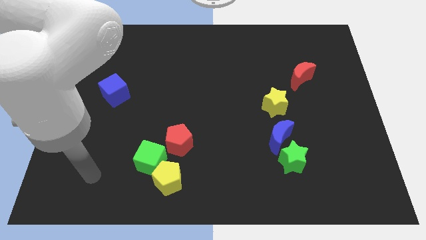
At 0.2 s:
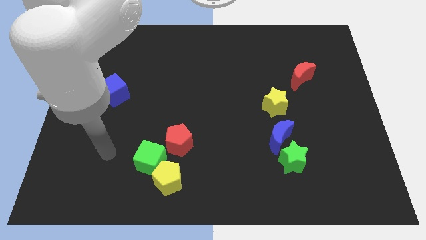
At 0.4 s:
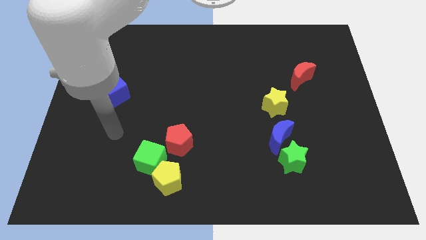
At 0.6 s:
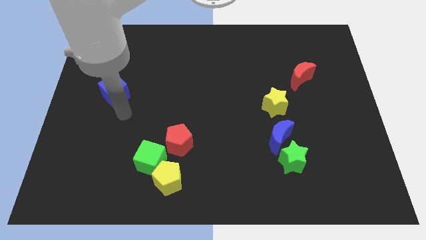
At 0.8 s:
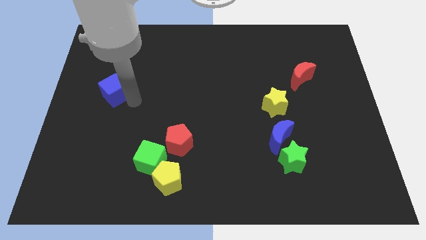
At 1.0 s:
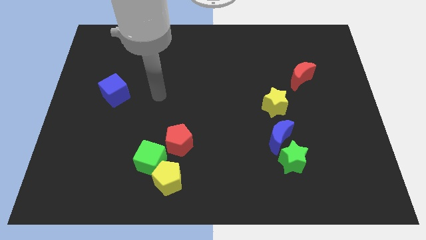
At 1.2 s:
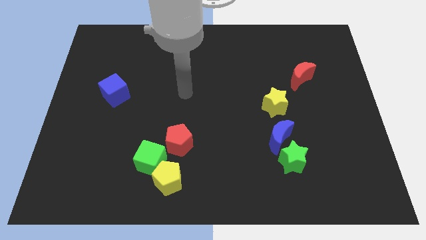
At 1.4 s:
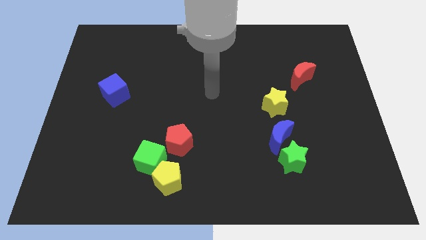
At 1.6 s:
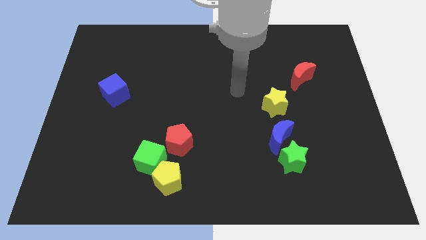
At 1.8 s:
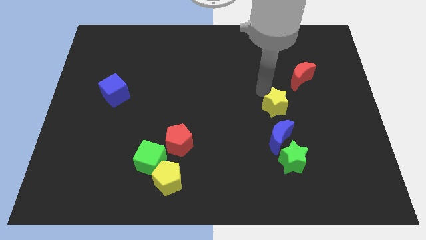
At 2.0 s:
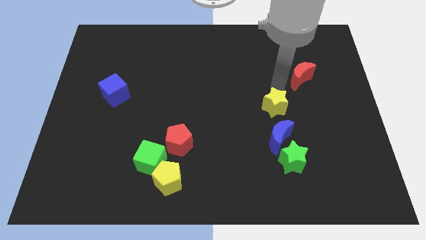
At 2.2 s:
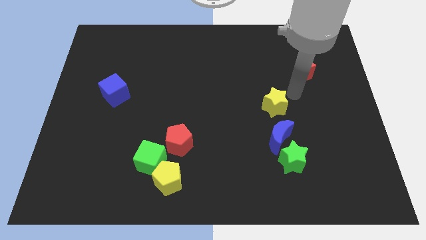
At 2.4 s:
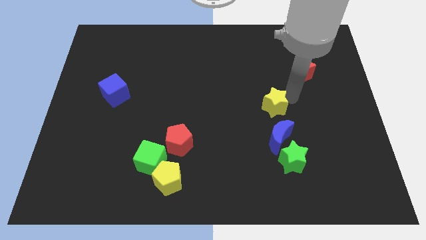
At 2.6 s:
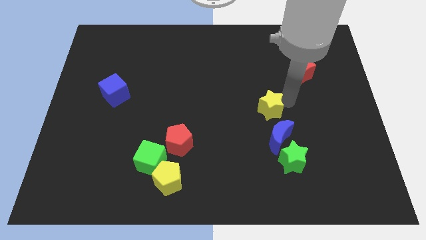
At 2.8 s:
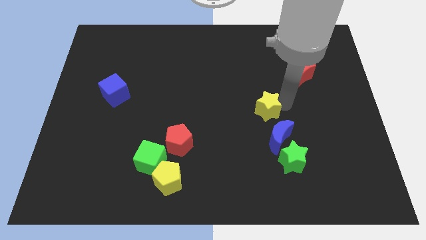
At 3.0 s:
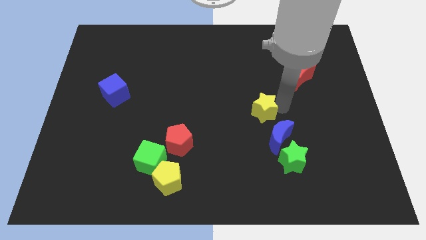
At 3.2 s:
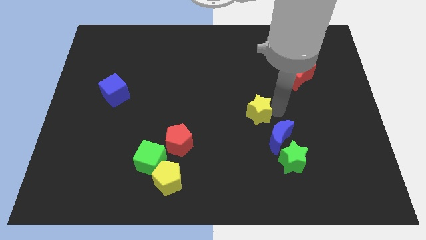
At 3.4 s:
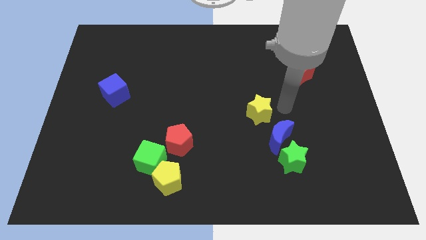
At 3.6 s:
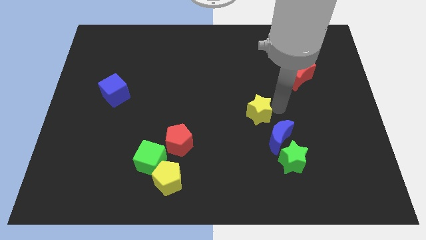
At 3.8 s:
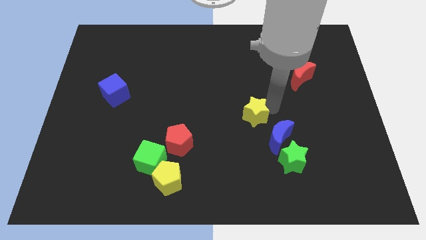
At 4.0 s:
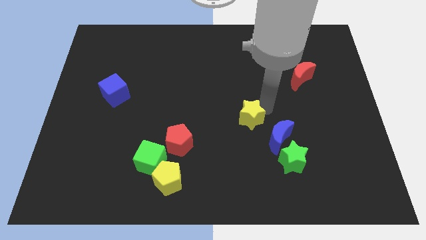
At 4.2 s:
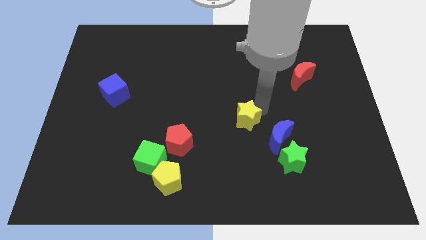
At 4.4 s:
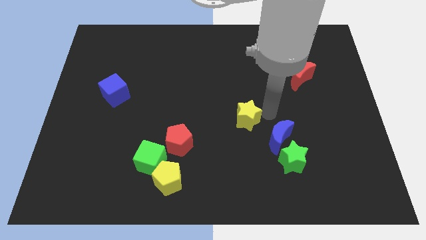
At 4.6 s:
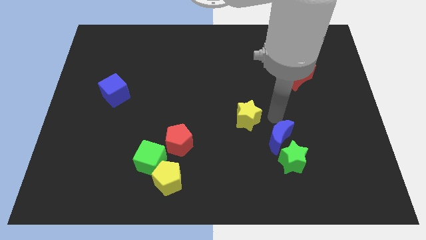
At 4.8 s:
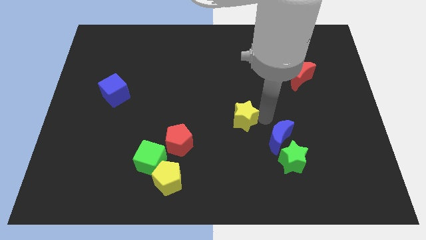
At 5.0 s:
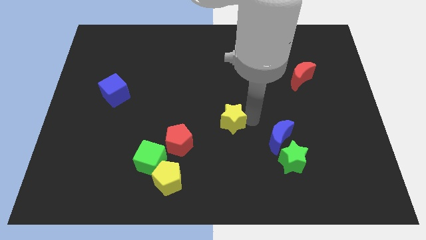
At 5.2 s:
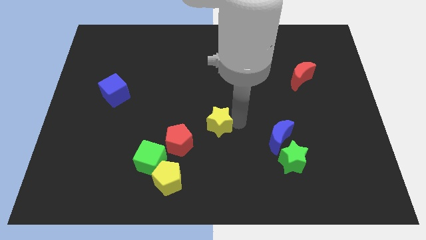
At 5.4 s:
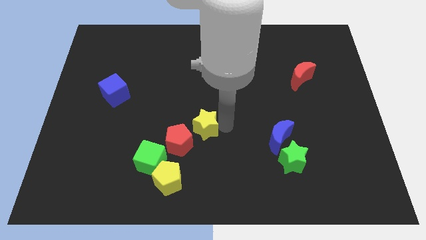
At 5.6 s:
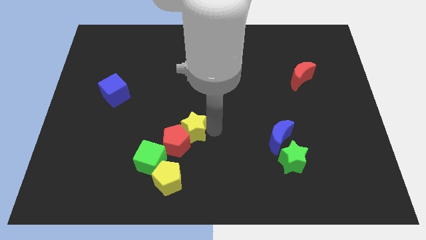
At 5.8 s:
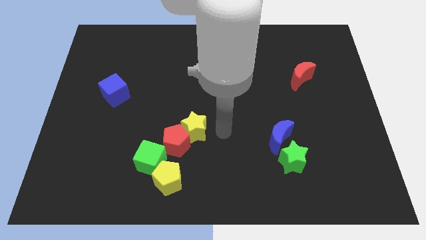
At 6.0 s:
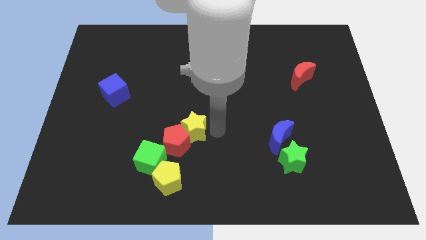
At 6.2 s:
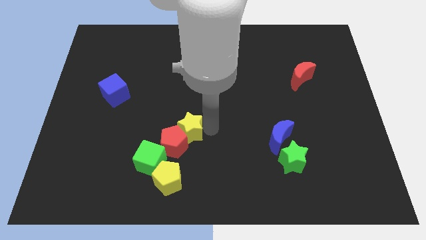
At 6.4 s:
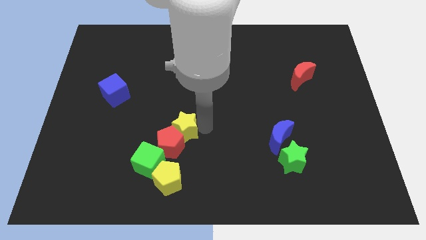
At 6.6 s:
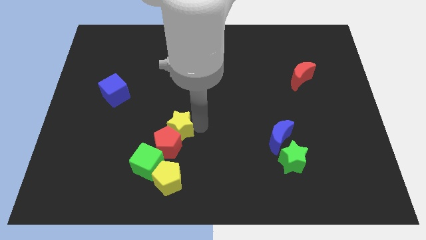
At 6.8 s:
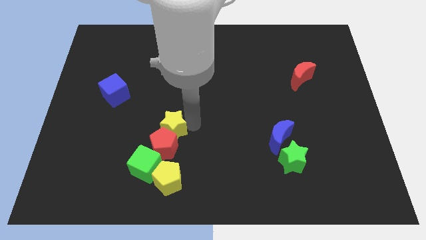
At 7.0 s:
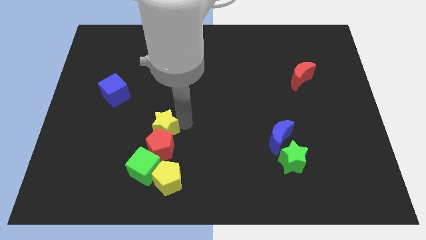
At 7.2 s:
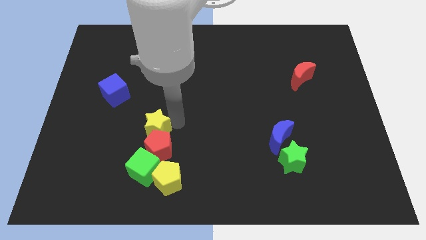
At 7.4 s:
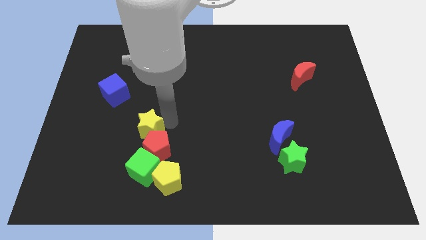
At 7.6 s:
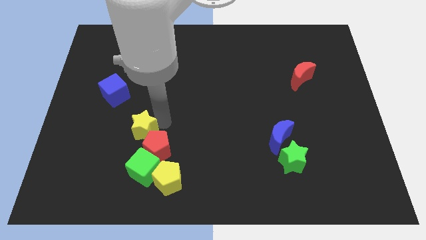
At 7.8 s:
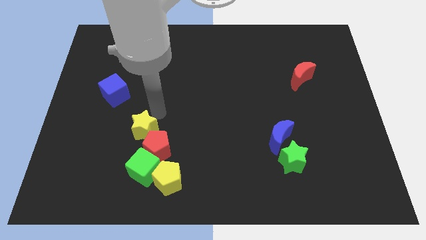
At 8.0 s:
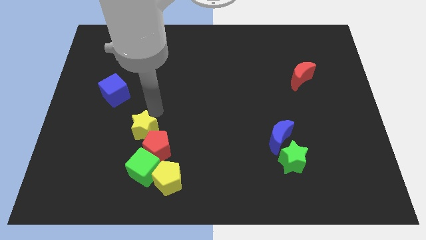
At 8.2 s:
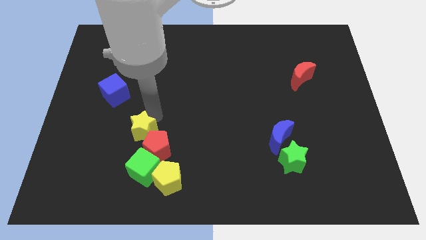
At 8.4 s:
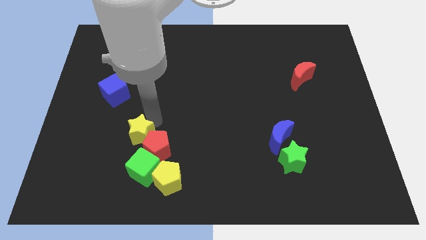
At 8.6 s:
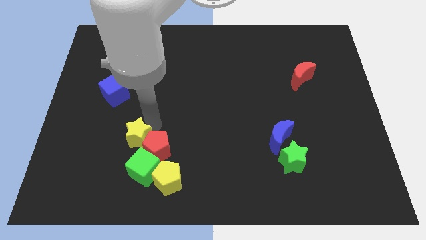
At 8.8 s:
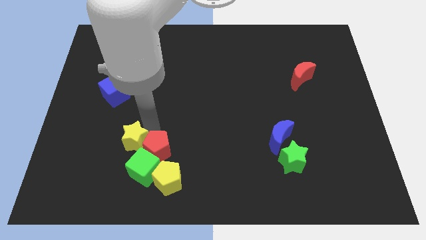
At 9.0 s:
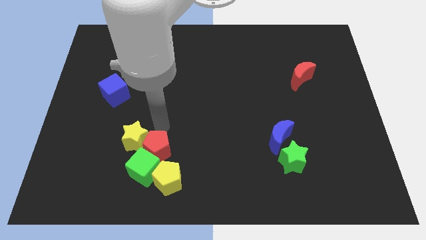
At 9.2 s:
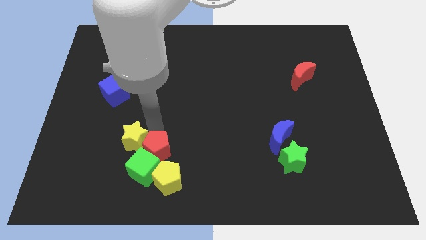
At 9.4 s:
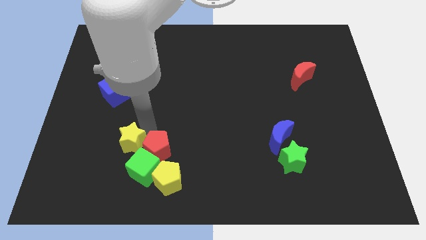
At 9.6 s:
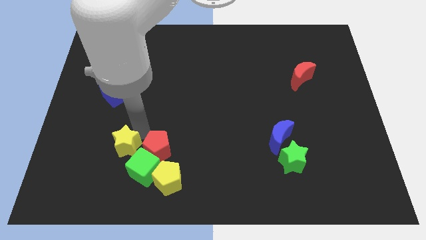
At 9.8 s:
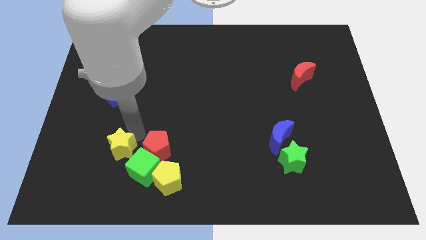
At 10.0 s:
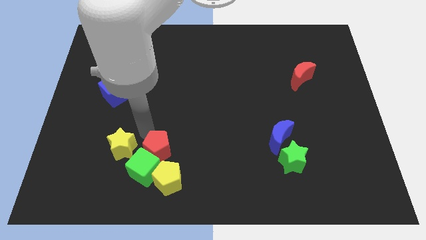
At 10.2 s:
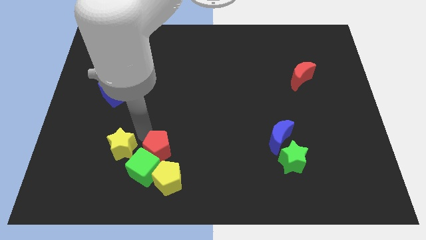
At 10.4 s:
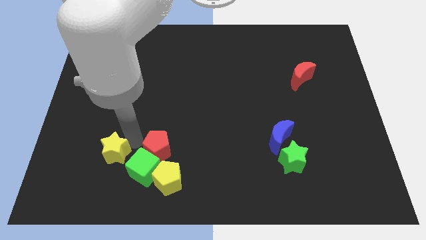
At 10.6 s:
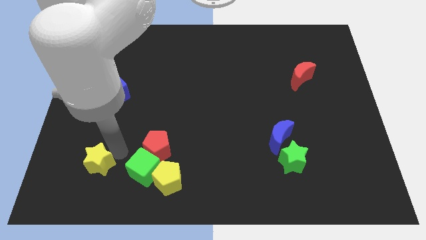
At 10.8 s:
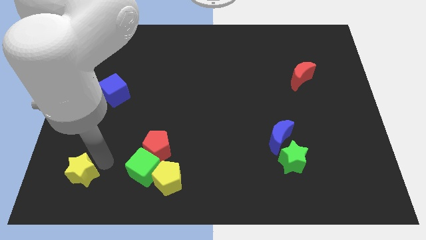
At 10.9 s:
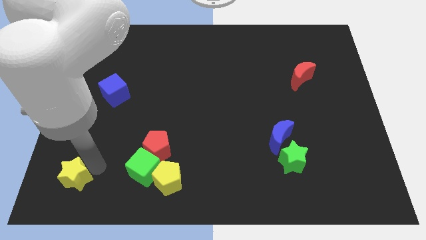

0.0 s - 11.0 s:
move the yellow star to the lower left corner

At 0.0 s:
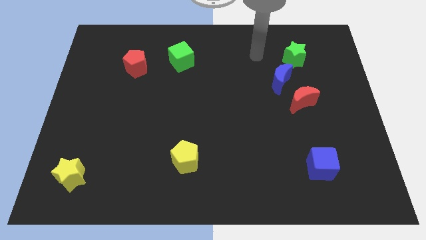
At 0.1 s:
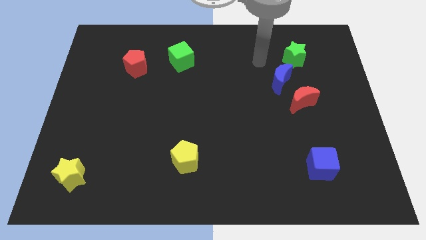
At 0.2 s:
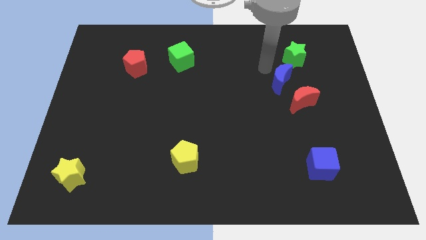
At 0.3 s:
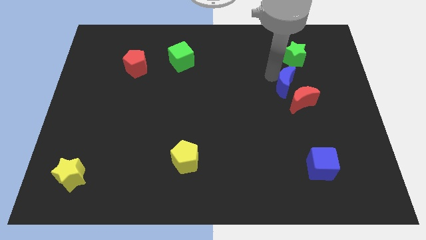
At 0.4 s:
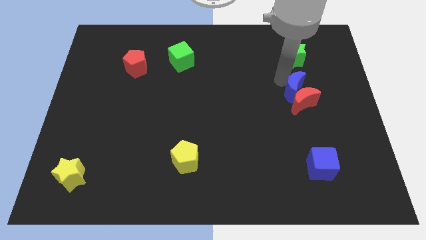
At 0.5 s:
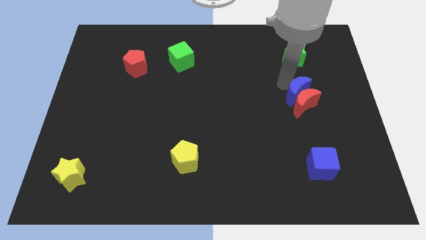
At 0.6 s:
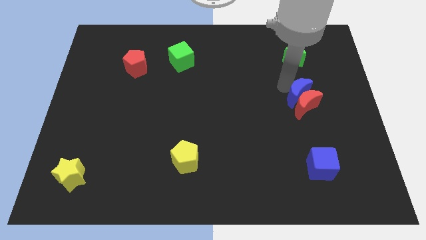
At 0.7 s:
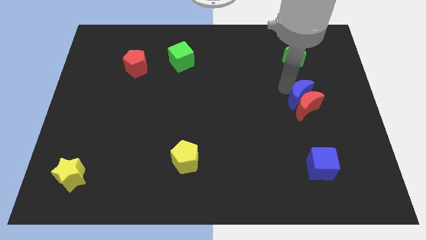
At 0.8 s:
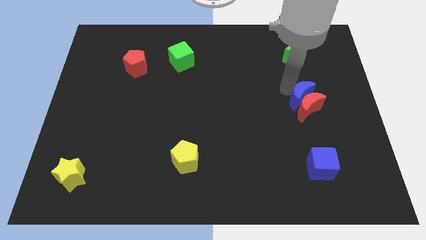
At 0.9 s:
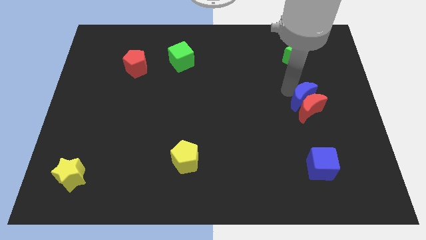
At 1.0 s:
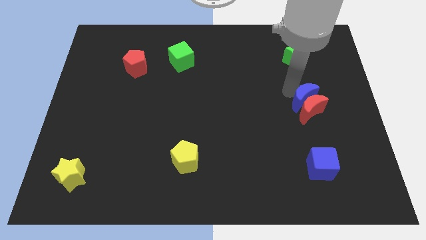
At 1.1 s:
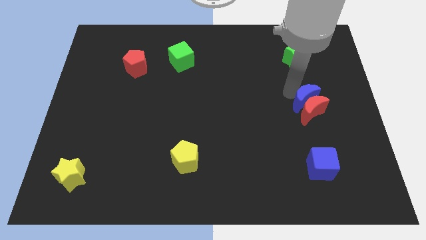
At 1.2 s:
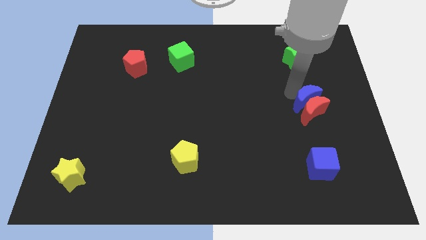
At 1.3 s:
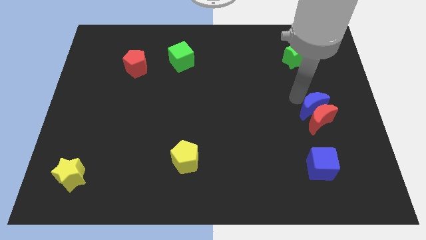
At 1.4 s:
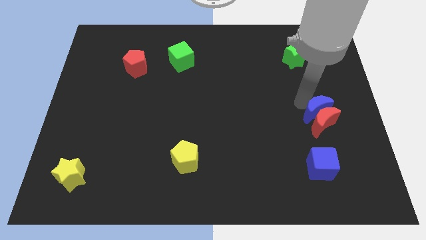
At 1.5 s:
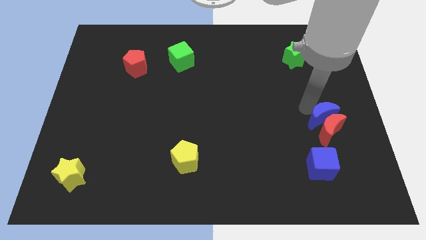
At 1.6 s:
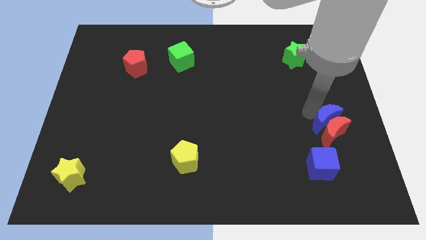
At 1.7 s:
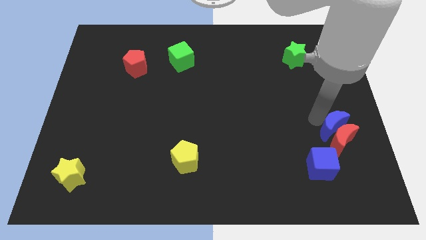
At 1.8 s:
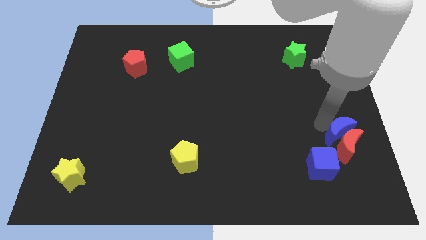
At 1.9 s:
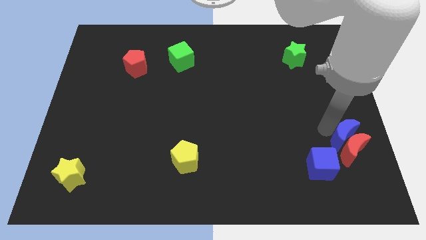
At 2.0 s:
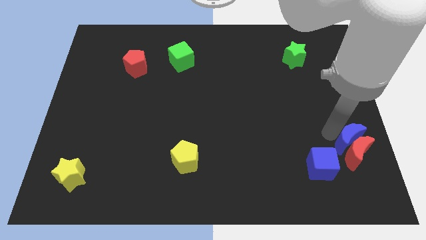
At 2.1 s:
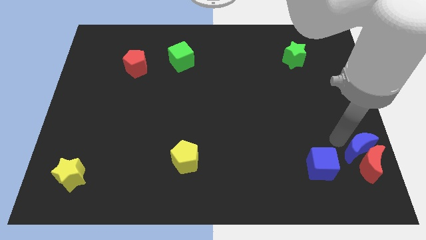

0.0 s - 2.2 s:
put the red moon to the bottom right
